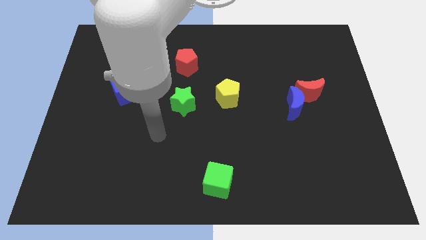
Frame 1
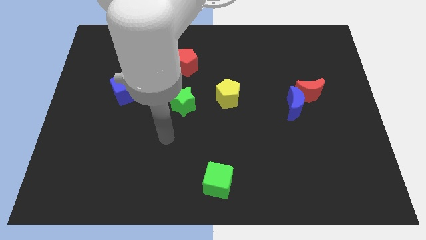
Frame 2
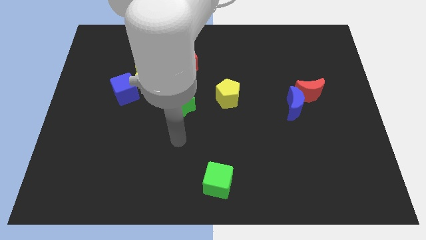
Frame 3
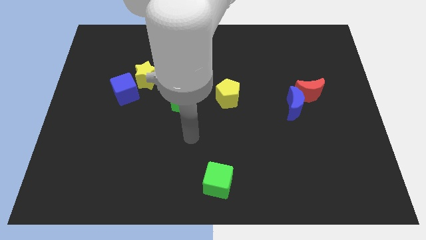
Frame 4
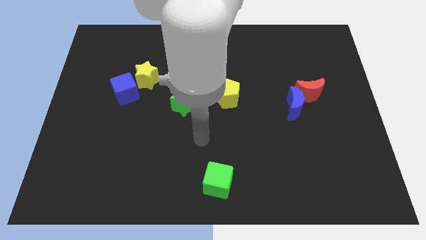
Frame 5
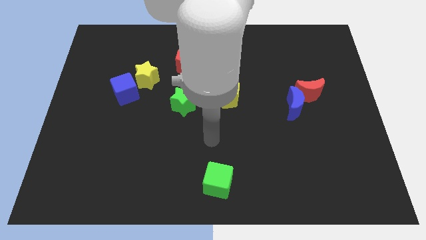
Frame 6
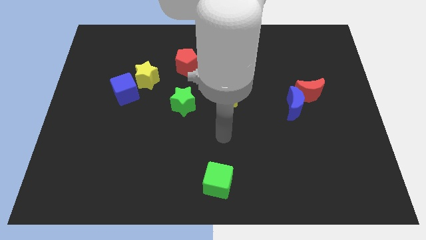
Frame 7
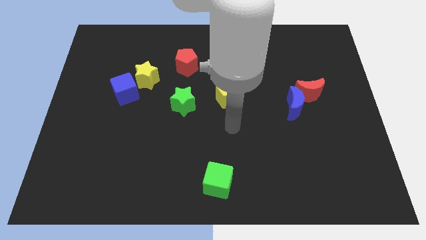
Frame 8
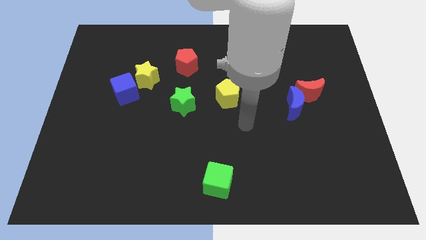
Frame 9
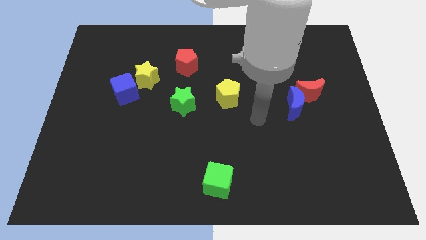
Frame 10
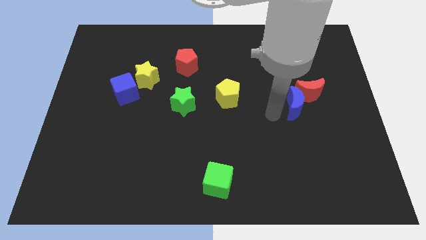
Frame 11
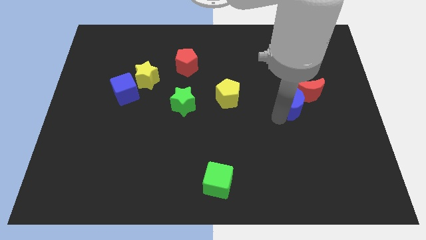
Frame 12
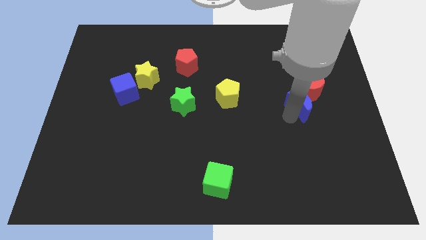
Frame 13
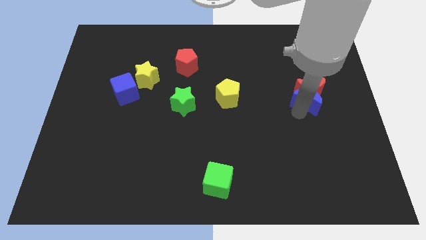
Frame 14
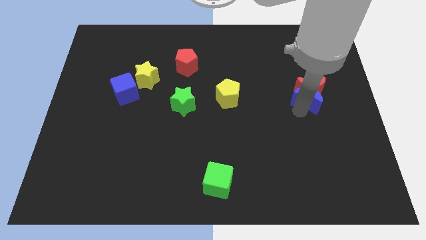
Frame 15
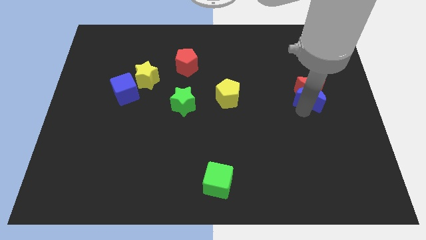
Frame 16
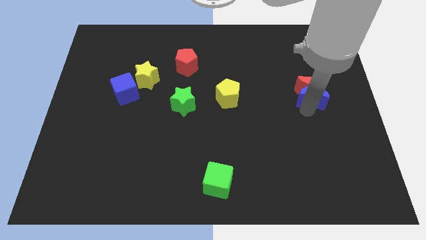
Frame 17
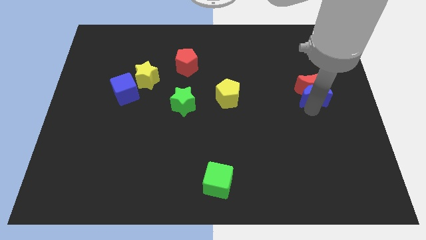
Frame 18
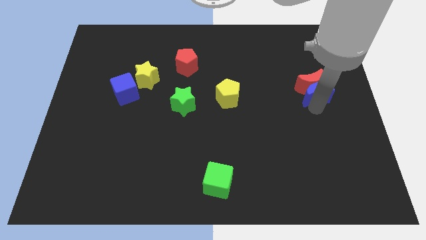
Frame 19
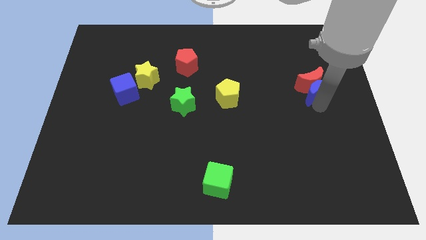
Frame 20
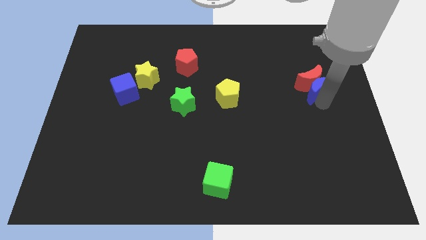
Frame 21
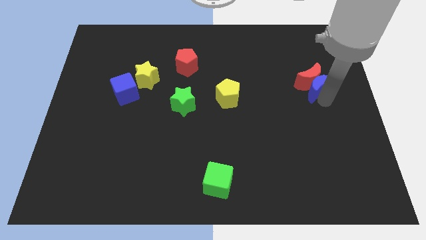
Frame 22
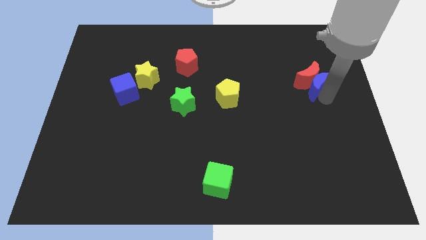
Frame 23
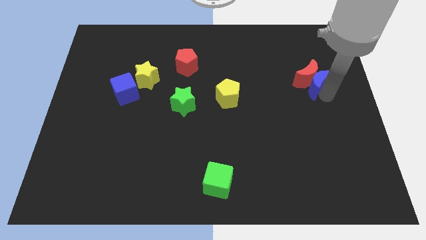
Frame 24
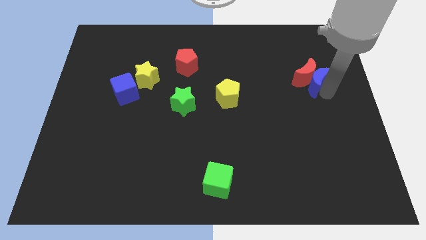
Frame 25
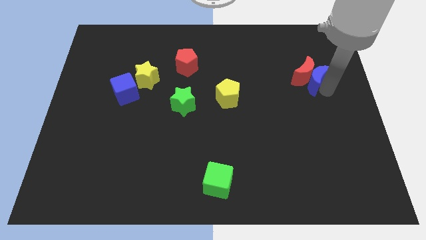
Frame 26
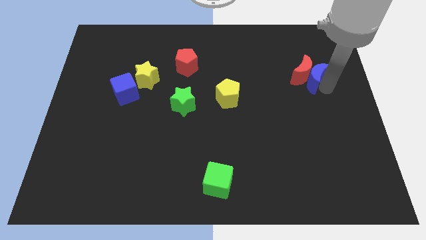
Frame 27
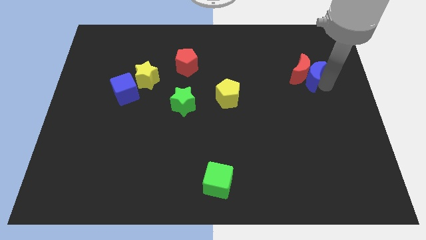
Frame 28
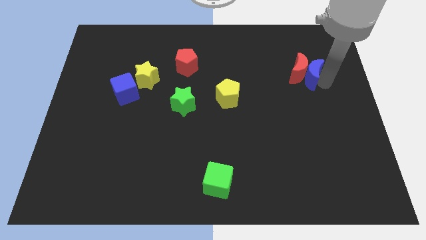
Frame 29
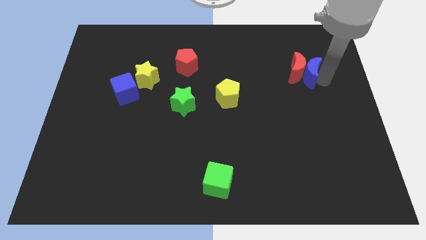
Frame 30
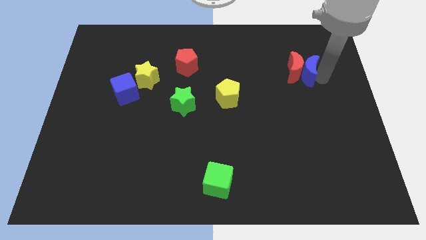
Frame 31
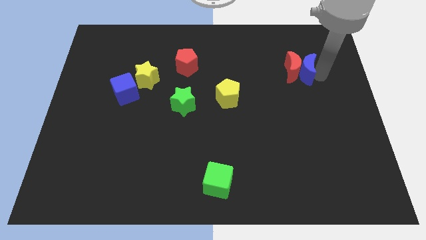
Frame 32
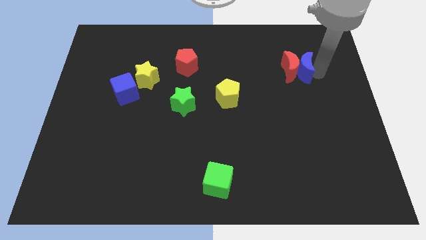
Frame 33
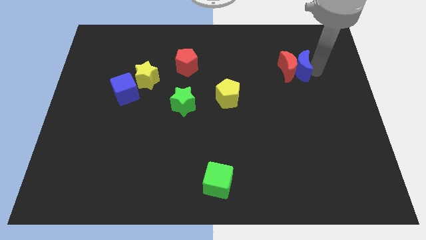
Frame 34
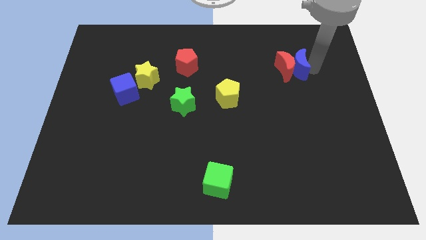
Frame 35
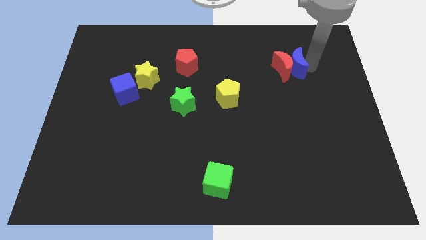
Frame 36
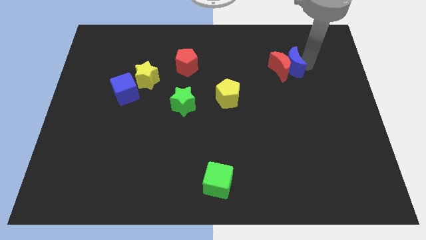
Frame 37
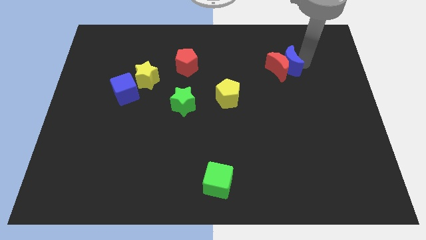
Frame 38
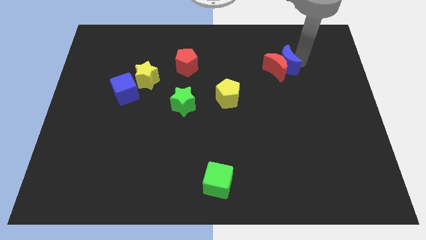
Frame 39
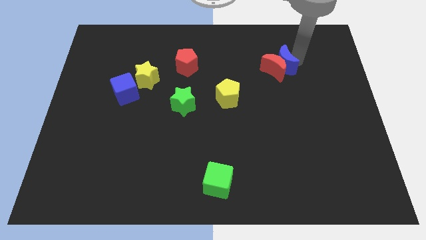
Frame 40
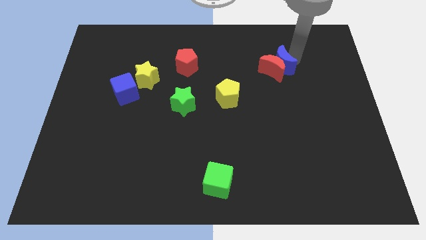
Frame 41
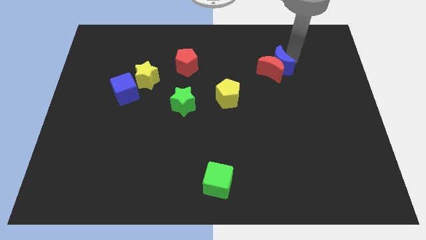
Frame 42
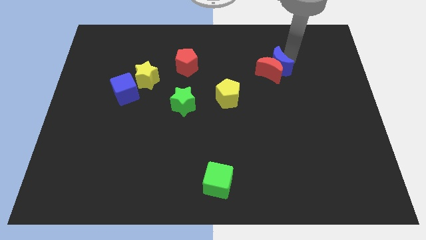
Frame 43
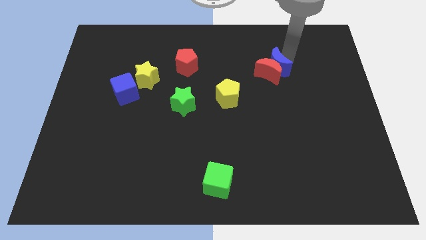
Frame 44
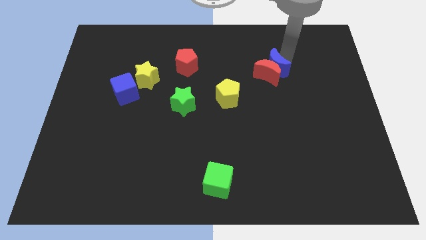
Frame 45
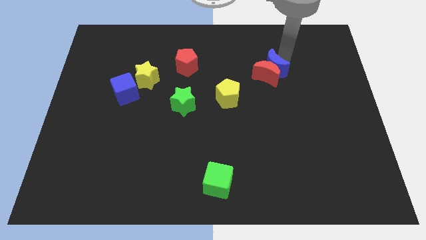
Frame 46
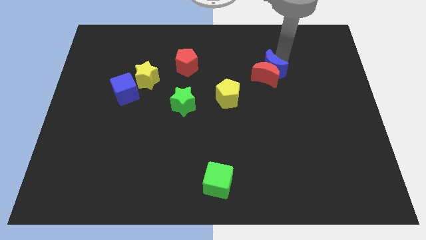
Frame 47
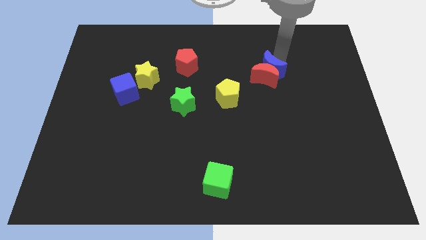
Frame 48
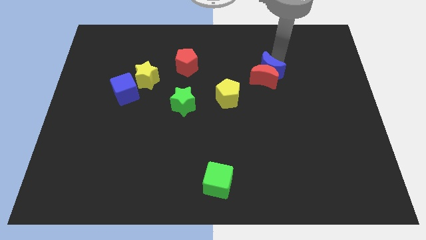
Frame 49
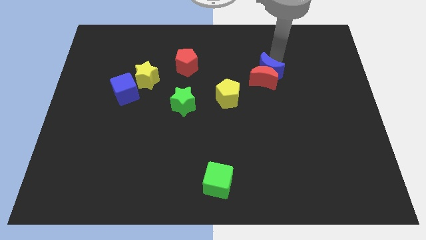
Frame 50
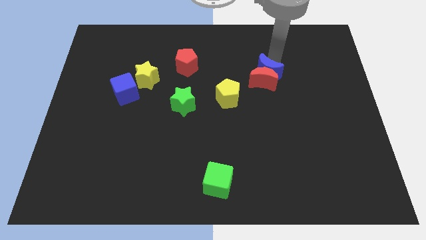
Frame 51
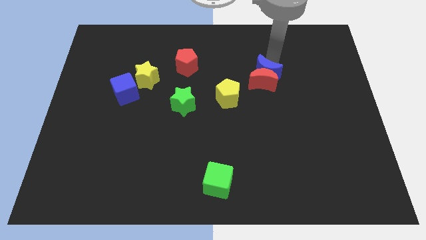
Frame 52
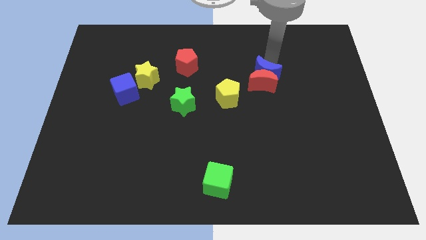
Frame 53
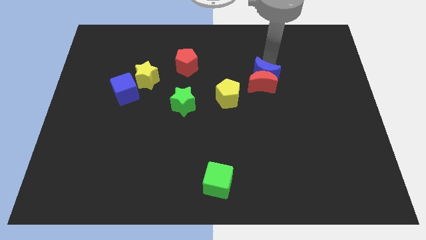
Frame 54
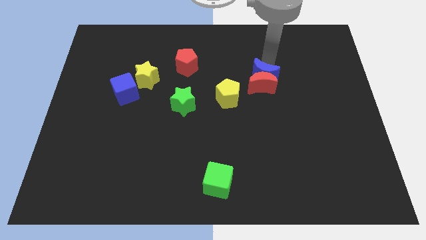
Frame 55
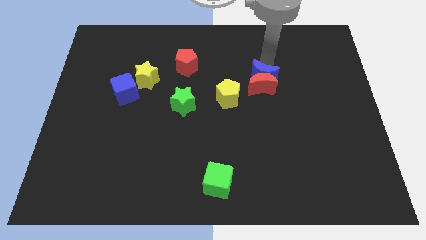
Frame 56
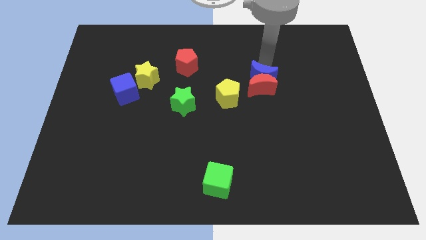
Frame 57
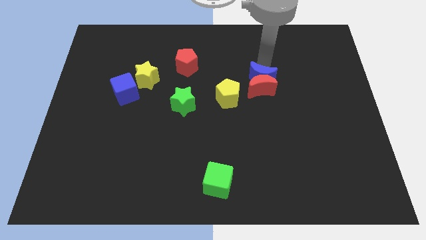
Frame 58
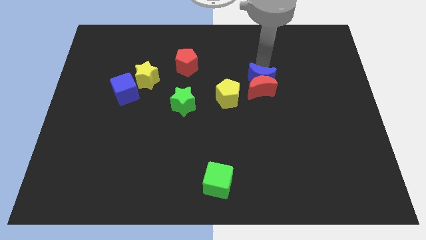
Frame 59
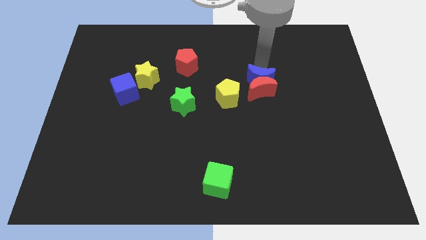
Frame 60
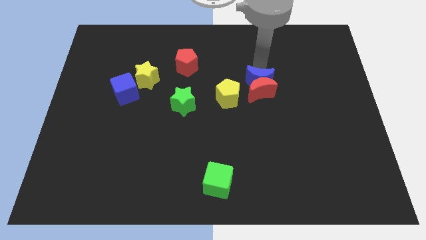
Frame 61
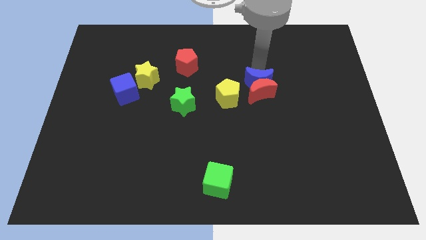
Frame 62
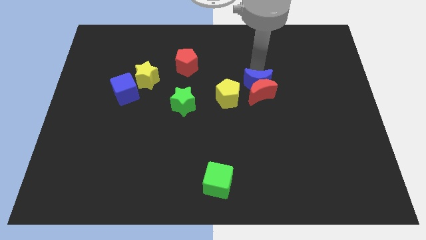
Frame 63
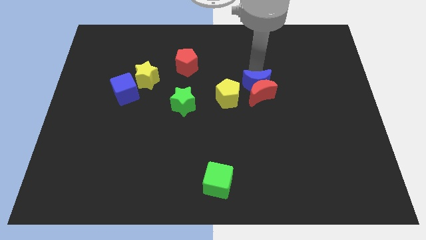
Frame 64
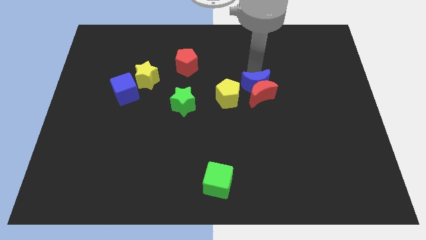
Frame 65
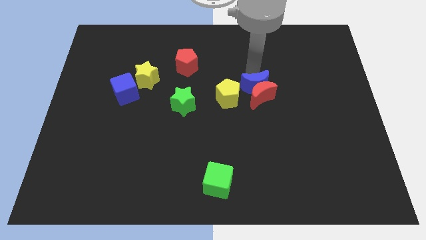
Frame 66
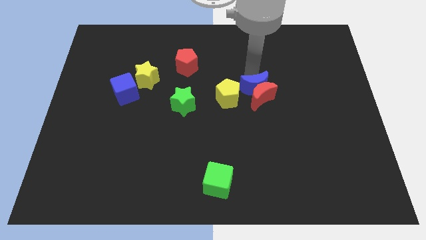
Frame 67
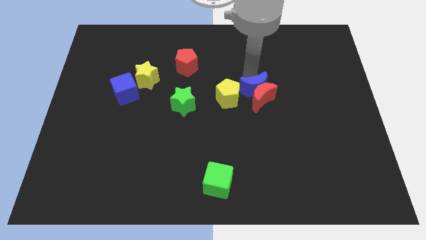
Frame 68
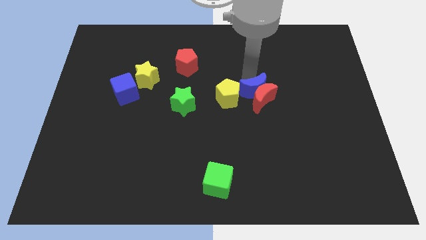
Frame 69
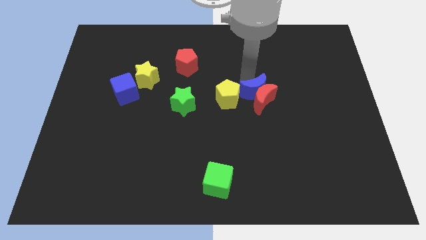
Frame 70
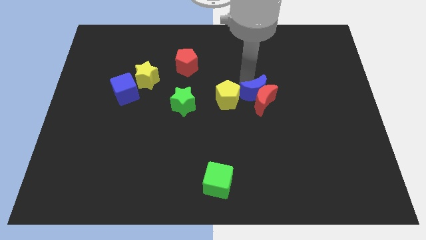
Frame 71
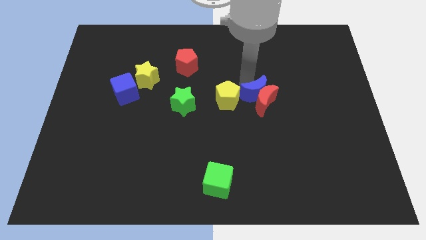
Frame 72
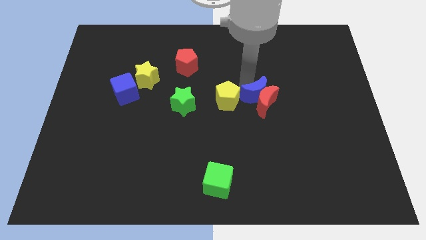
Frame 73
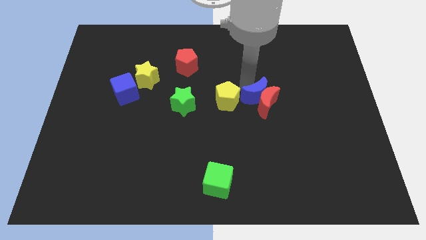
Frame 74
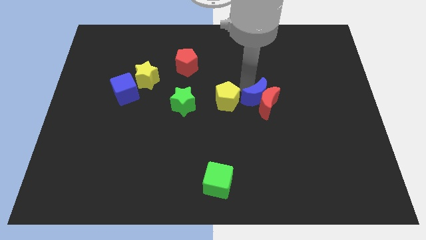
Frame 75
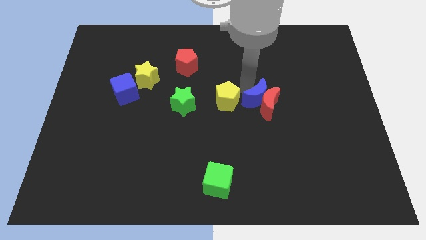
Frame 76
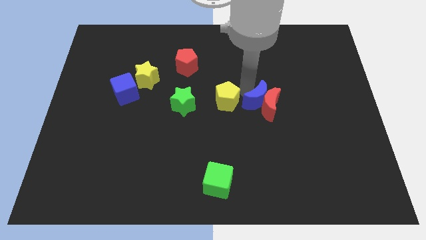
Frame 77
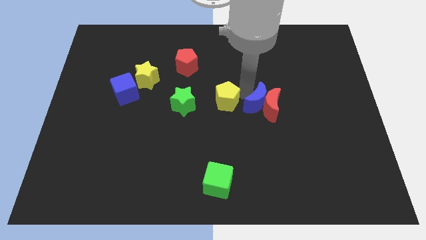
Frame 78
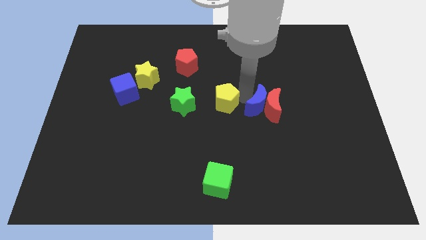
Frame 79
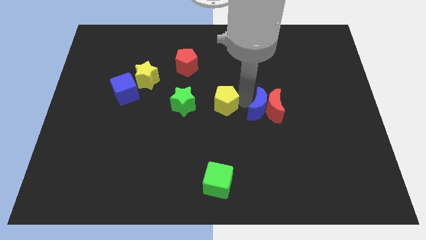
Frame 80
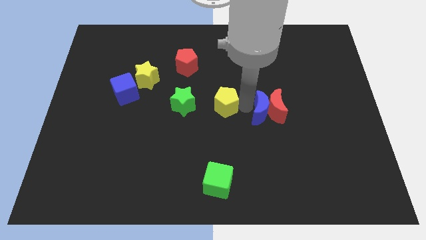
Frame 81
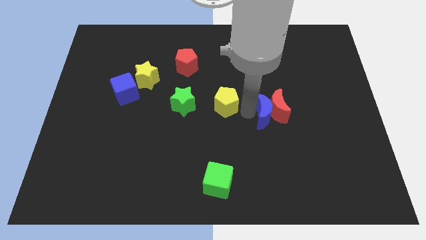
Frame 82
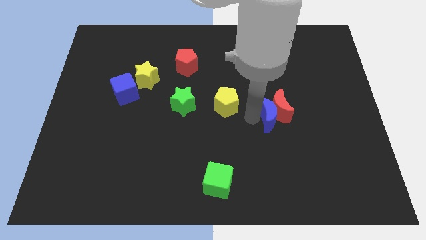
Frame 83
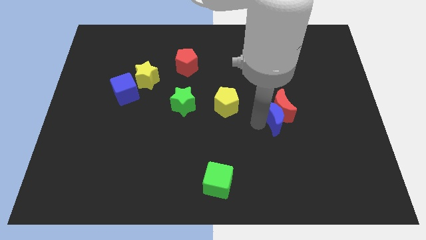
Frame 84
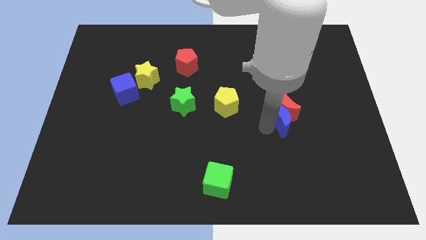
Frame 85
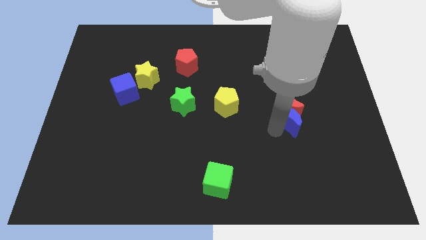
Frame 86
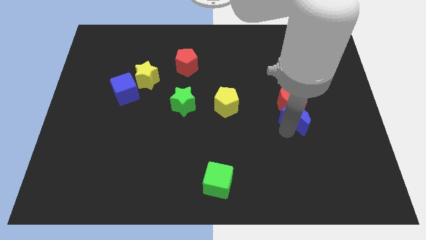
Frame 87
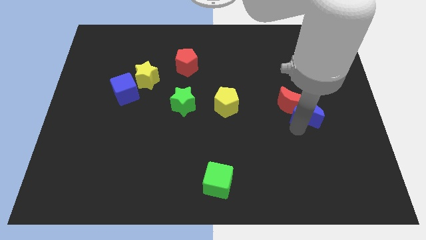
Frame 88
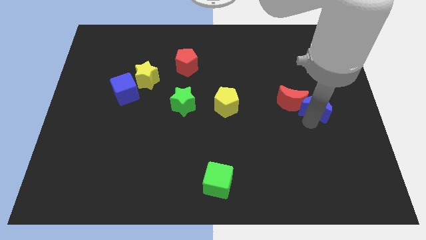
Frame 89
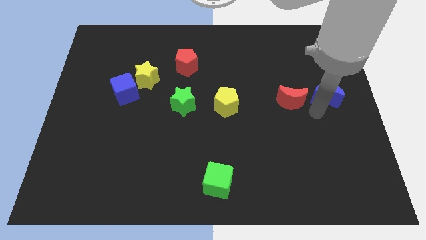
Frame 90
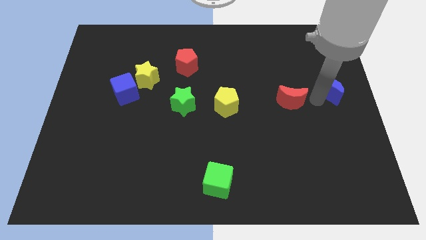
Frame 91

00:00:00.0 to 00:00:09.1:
pull the red moon apart from the blue moon

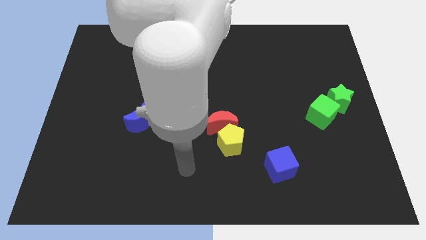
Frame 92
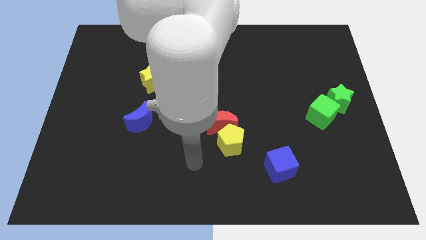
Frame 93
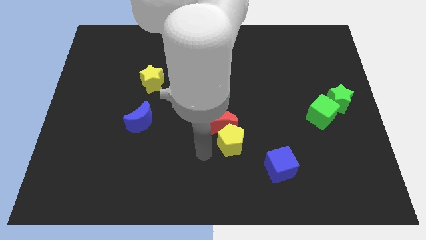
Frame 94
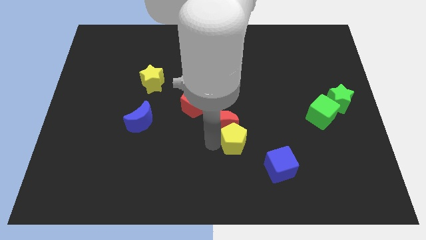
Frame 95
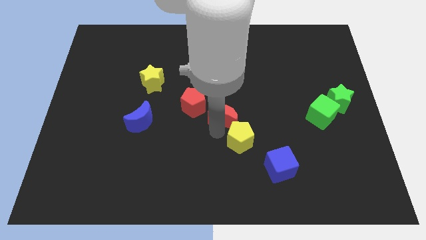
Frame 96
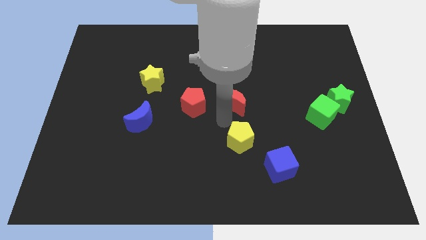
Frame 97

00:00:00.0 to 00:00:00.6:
move the yellow pentagon away from the red moon
